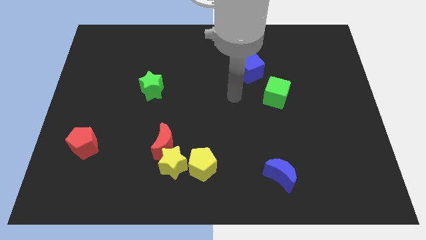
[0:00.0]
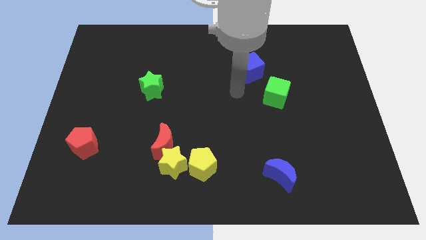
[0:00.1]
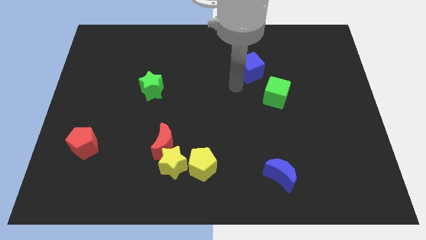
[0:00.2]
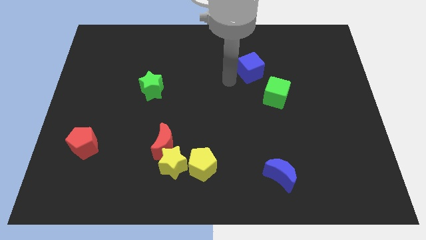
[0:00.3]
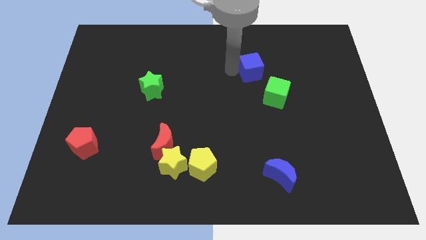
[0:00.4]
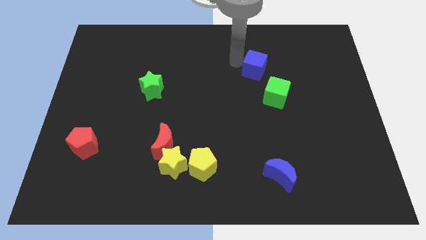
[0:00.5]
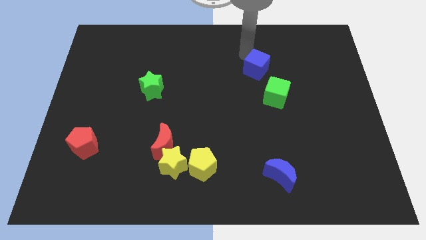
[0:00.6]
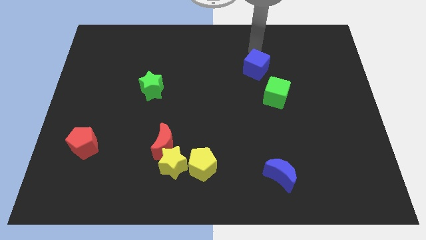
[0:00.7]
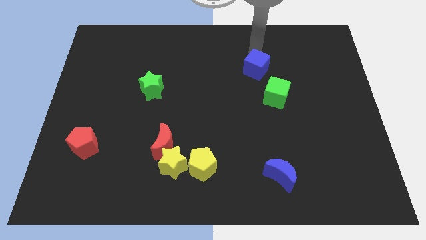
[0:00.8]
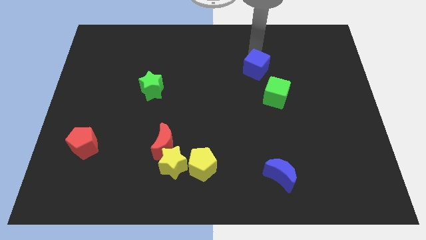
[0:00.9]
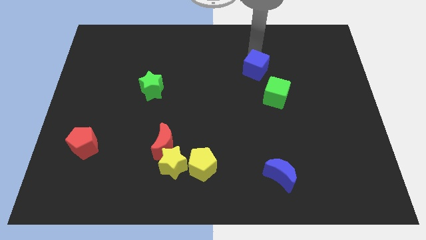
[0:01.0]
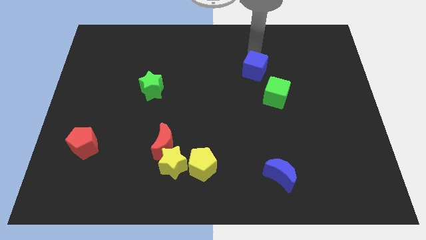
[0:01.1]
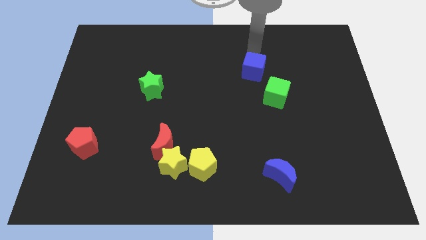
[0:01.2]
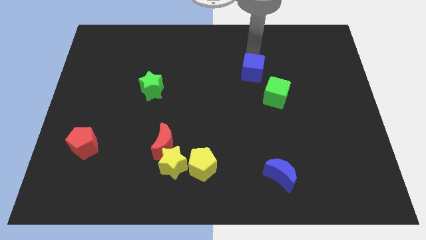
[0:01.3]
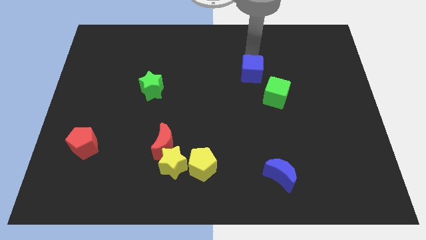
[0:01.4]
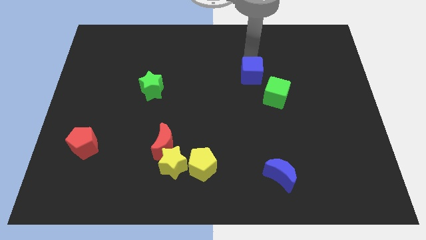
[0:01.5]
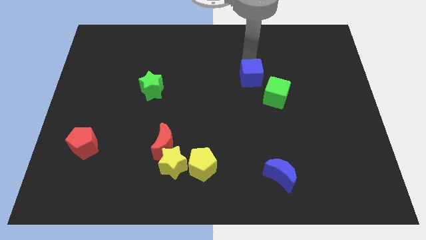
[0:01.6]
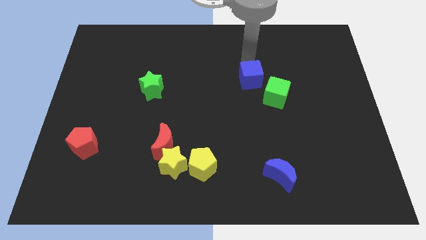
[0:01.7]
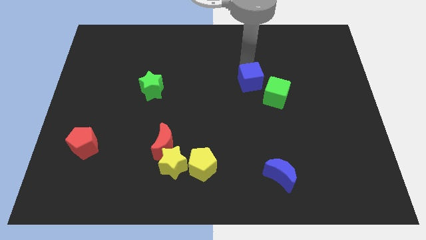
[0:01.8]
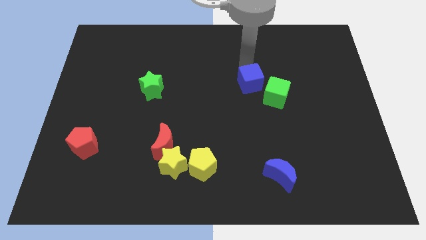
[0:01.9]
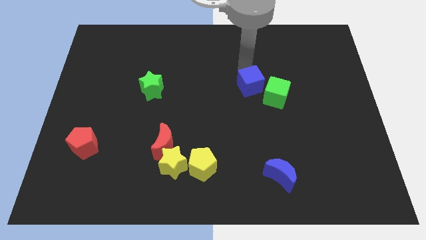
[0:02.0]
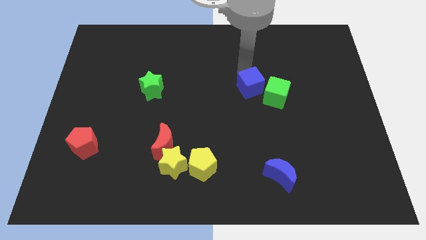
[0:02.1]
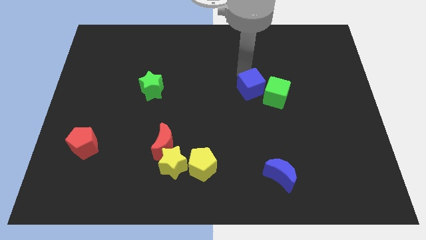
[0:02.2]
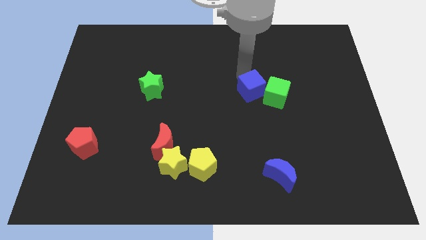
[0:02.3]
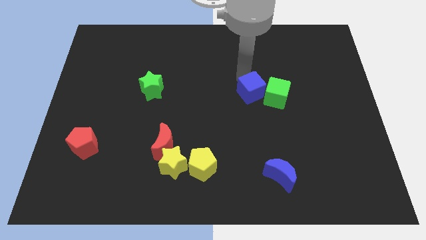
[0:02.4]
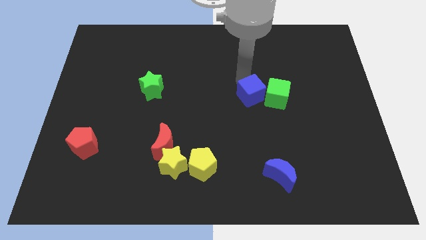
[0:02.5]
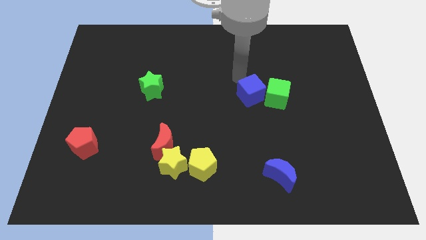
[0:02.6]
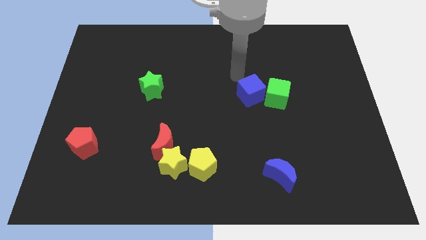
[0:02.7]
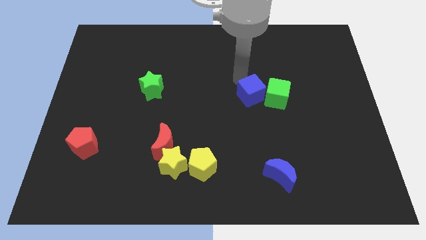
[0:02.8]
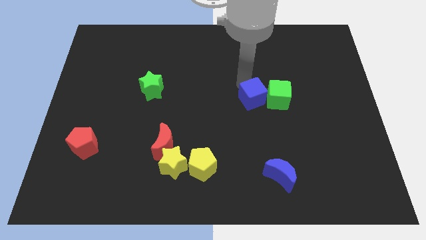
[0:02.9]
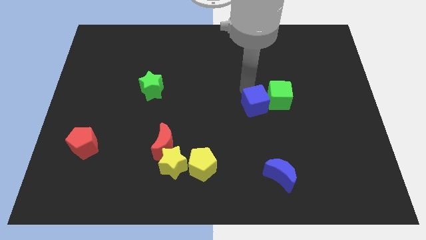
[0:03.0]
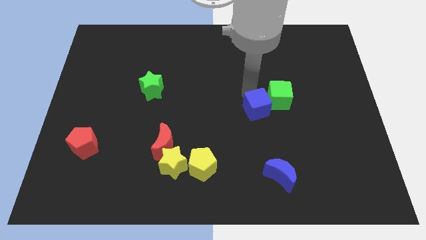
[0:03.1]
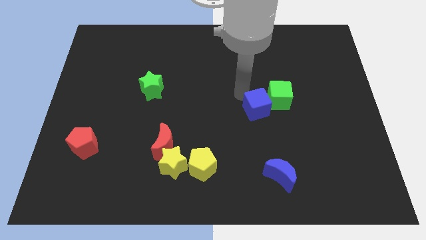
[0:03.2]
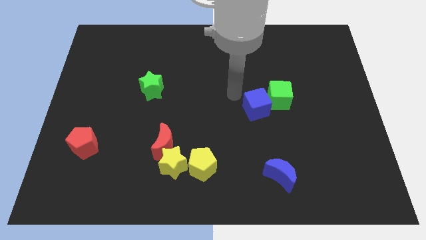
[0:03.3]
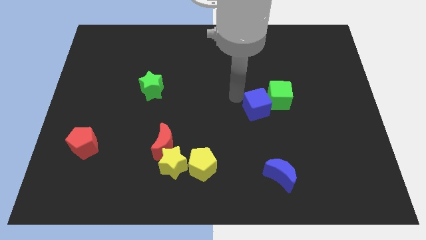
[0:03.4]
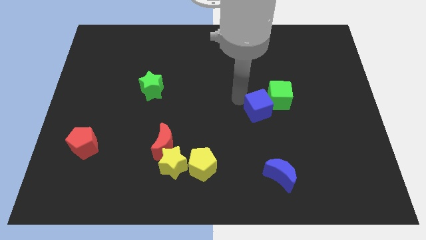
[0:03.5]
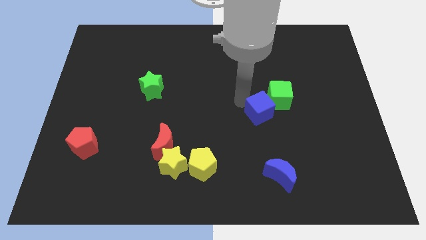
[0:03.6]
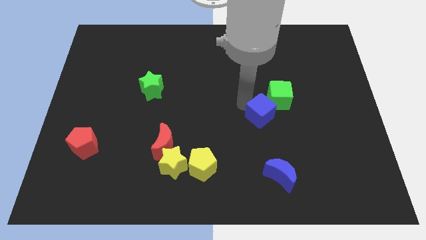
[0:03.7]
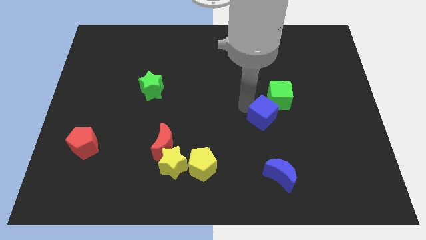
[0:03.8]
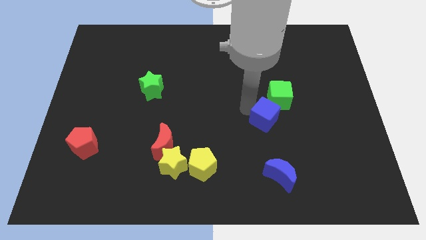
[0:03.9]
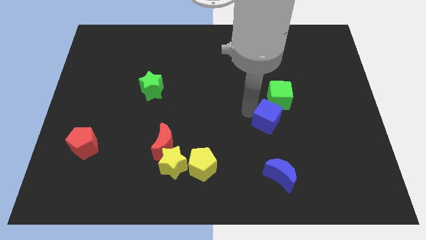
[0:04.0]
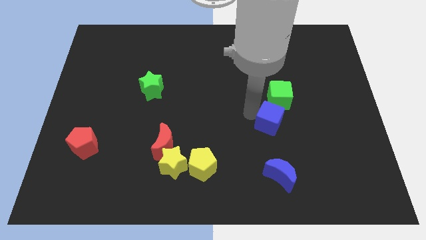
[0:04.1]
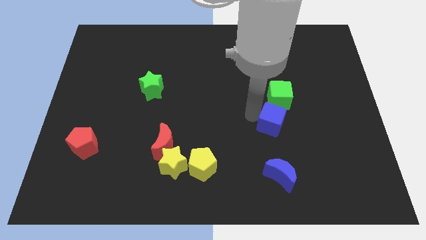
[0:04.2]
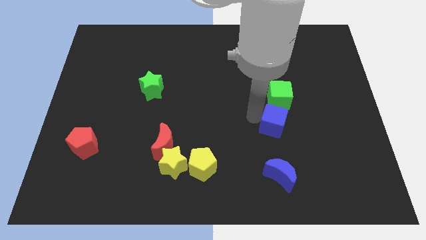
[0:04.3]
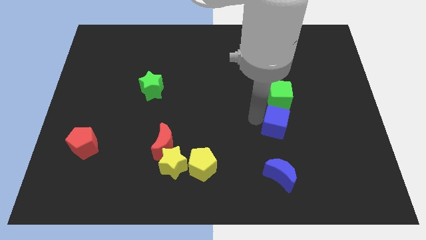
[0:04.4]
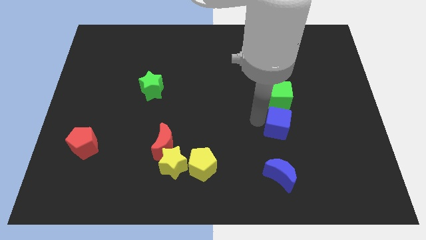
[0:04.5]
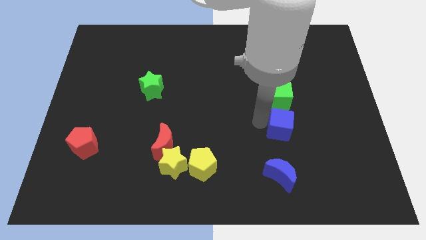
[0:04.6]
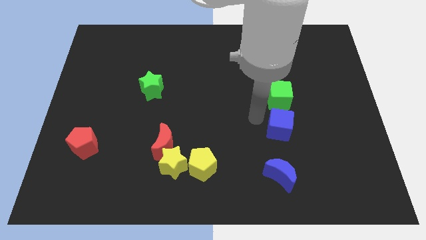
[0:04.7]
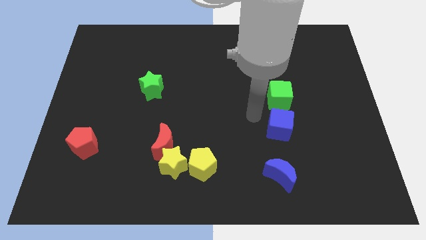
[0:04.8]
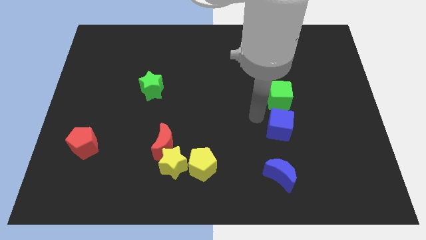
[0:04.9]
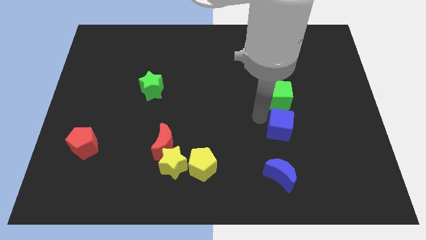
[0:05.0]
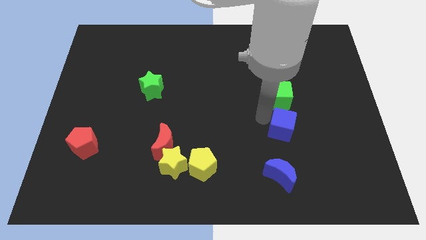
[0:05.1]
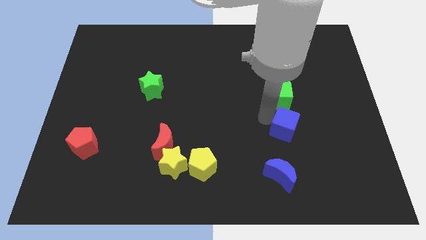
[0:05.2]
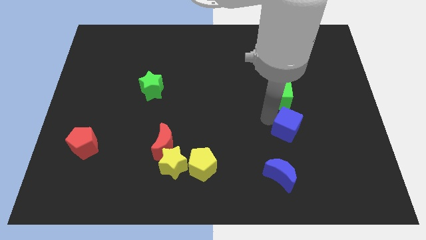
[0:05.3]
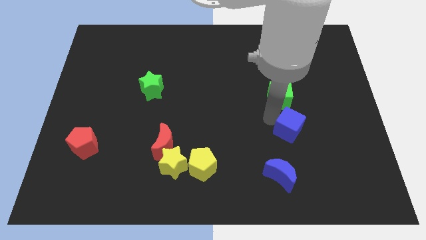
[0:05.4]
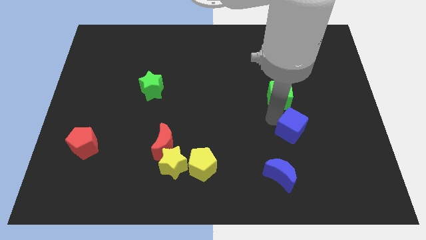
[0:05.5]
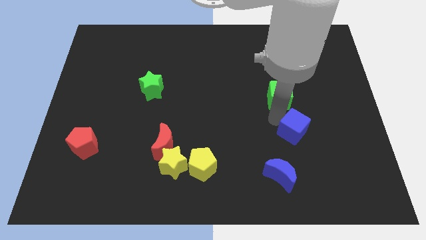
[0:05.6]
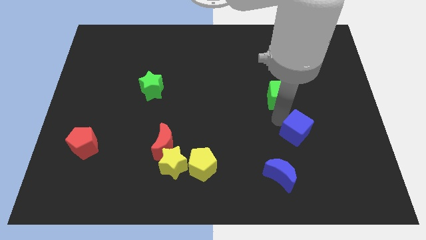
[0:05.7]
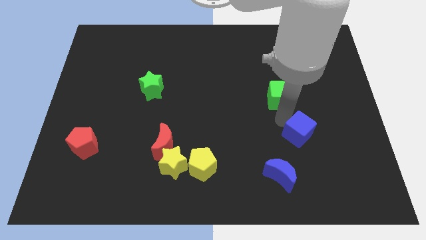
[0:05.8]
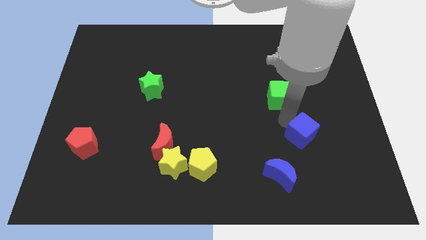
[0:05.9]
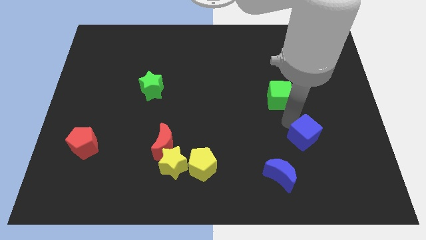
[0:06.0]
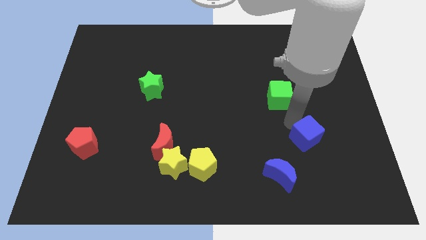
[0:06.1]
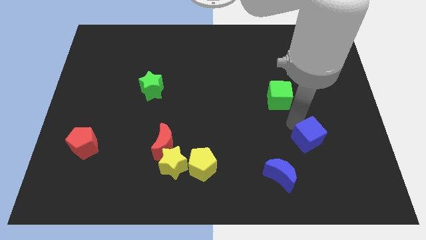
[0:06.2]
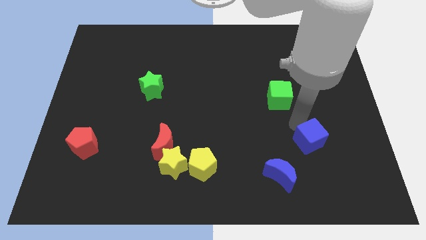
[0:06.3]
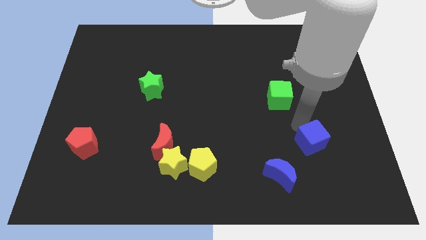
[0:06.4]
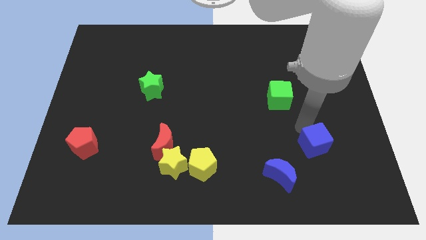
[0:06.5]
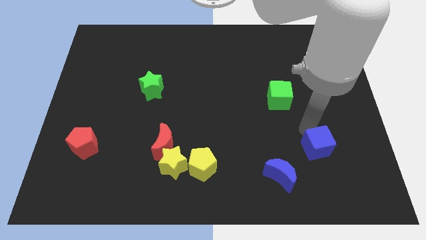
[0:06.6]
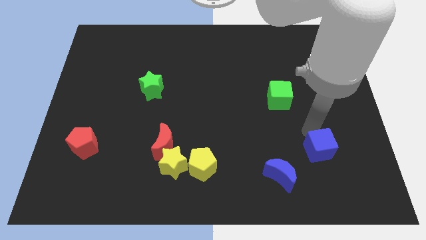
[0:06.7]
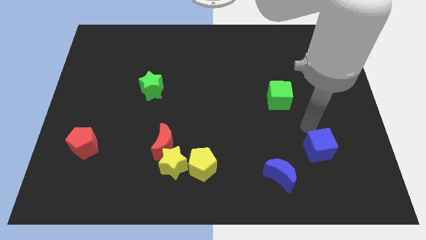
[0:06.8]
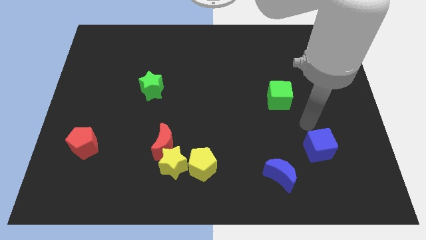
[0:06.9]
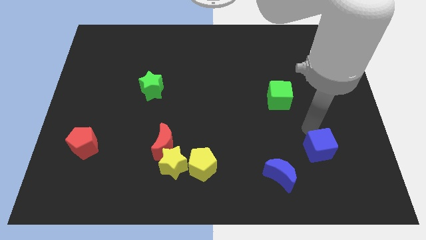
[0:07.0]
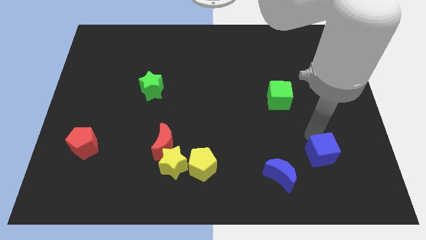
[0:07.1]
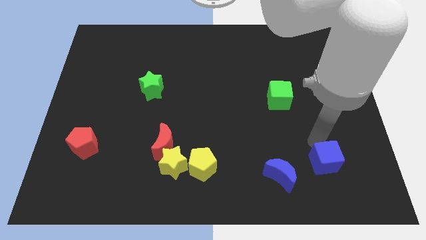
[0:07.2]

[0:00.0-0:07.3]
push the blue cube to the right of the blue moon
